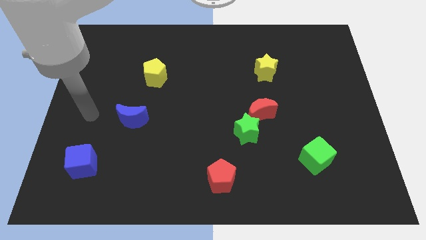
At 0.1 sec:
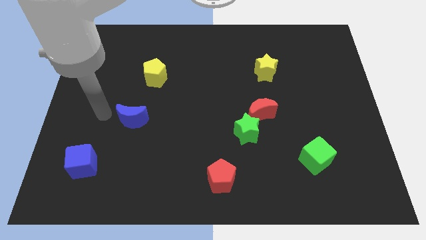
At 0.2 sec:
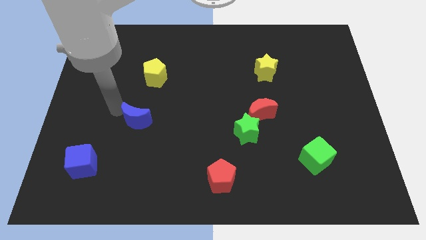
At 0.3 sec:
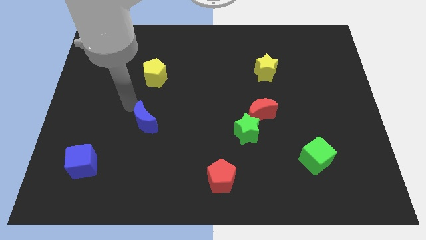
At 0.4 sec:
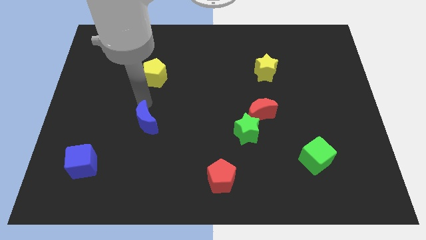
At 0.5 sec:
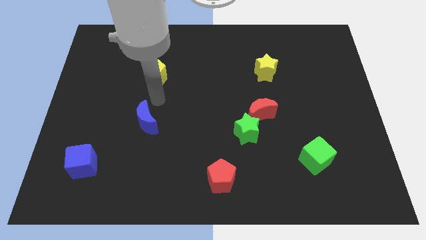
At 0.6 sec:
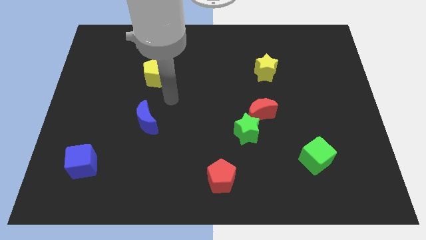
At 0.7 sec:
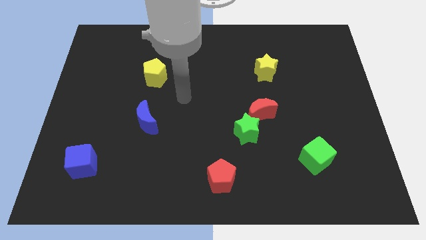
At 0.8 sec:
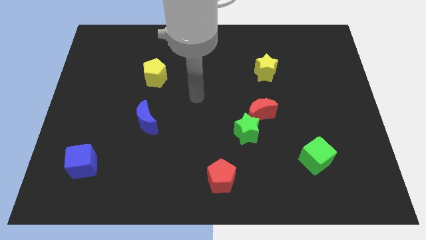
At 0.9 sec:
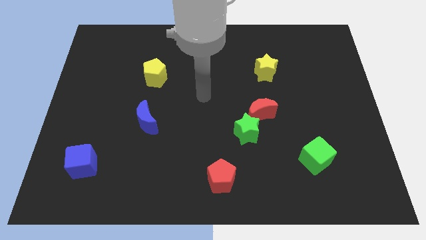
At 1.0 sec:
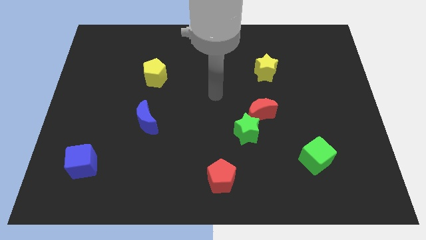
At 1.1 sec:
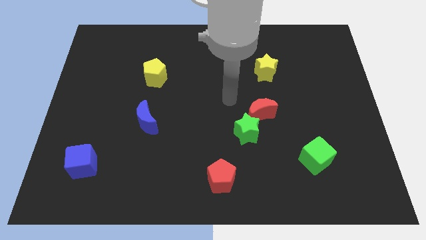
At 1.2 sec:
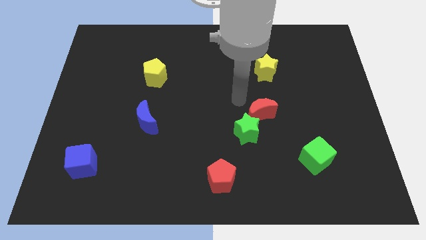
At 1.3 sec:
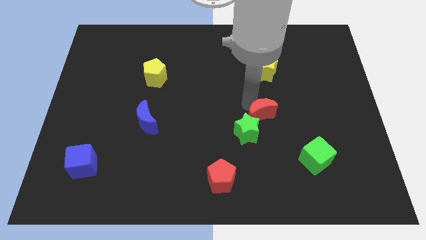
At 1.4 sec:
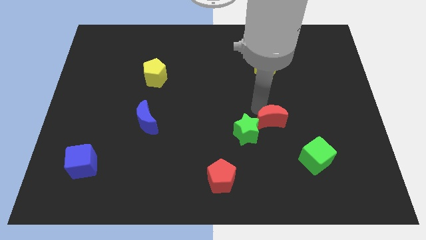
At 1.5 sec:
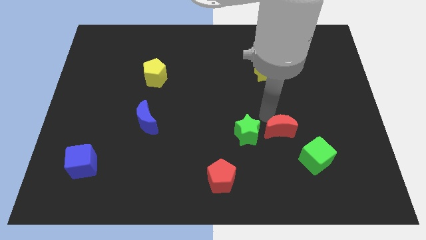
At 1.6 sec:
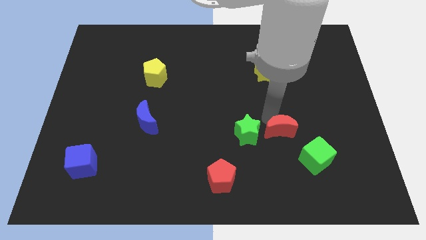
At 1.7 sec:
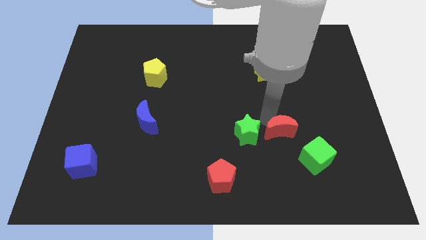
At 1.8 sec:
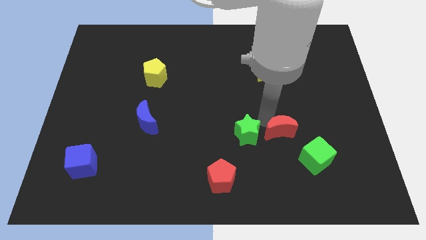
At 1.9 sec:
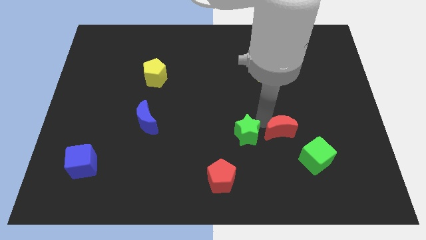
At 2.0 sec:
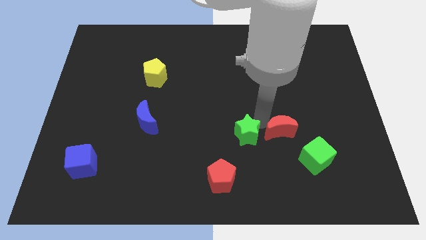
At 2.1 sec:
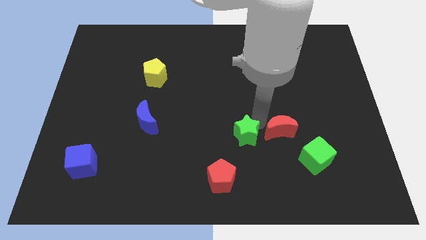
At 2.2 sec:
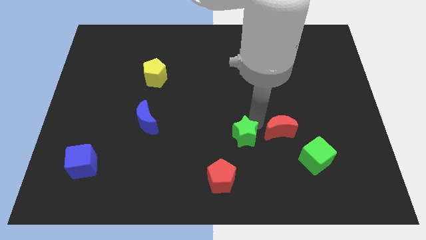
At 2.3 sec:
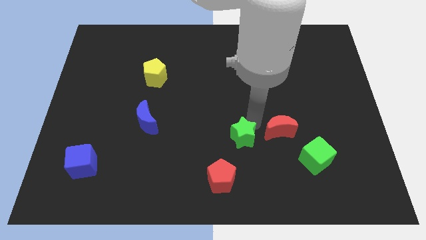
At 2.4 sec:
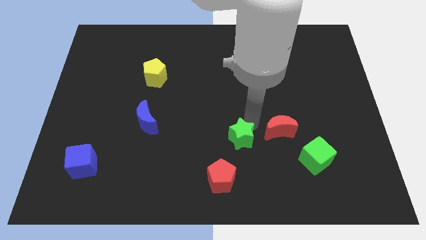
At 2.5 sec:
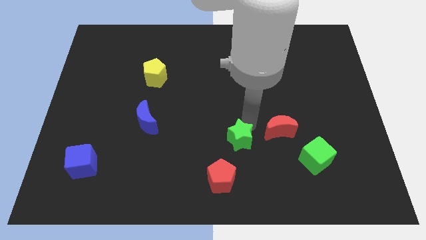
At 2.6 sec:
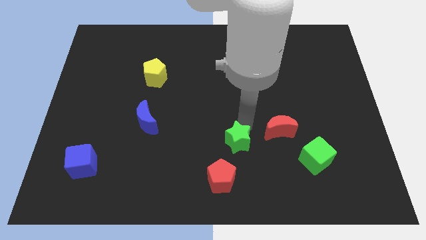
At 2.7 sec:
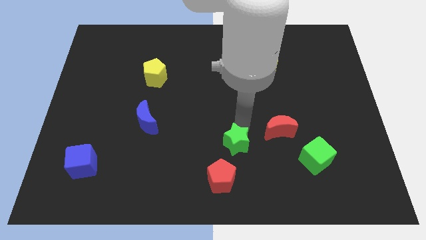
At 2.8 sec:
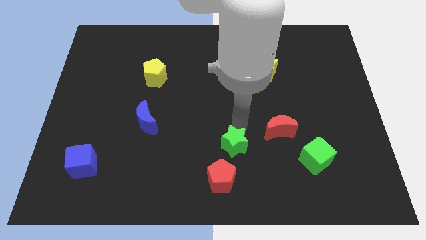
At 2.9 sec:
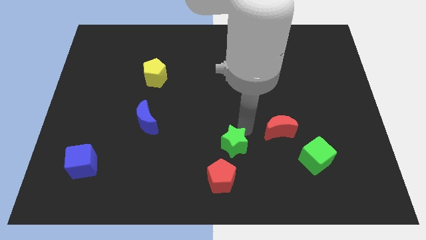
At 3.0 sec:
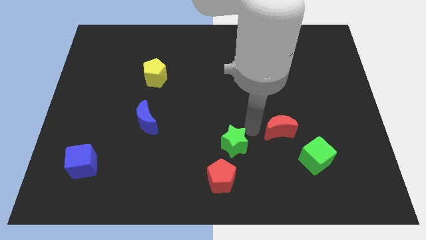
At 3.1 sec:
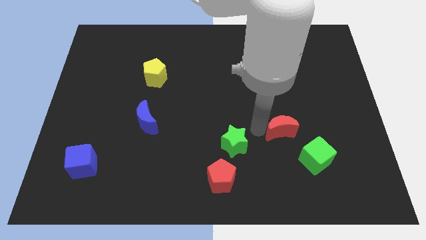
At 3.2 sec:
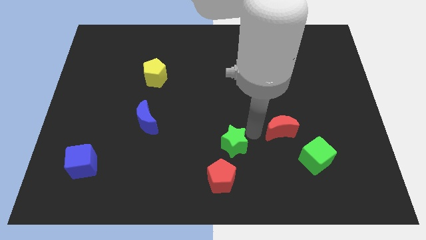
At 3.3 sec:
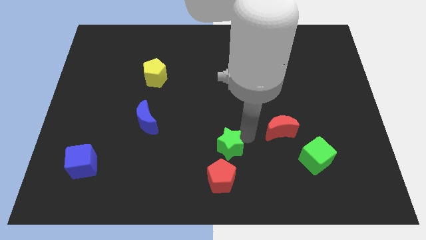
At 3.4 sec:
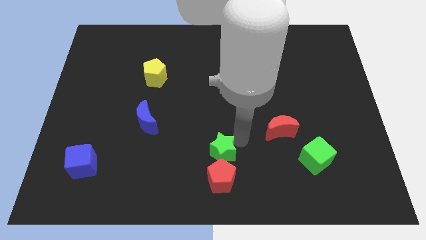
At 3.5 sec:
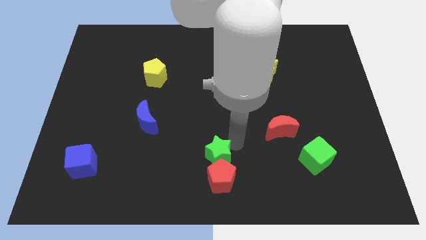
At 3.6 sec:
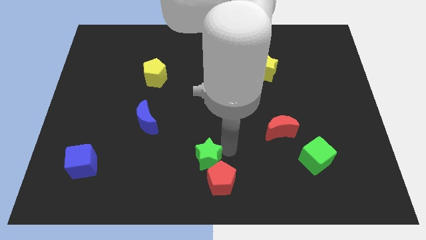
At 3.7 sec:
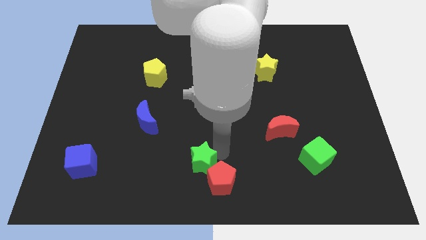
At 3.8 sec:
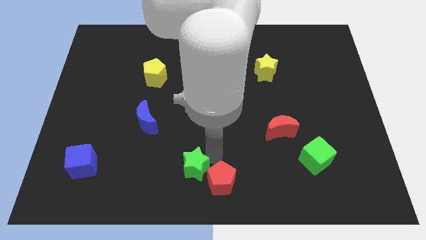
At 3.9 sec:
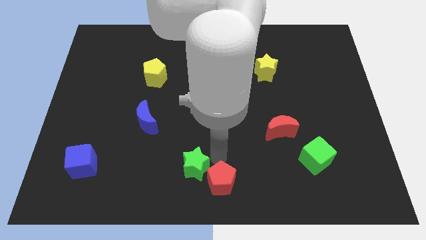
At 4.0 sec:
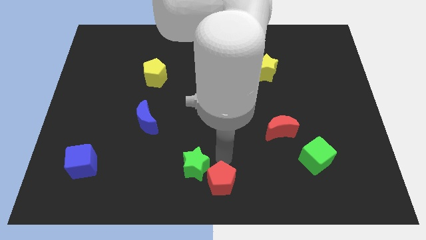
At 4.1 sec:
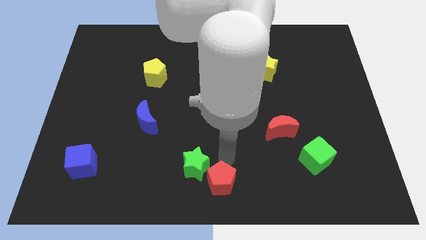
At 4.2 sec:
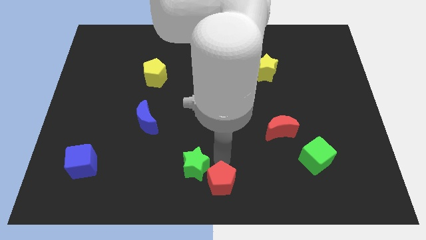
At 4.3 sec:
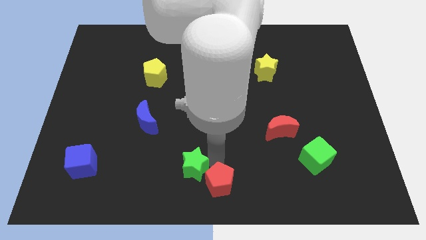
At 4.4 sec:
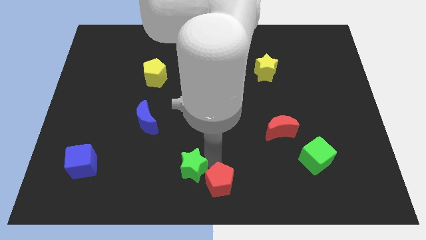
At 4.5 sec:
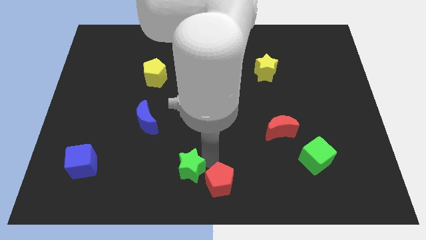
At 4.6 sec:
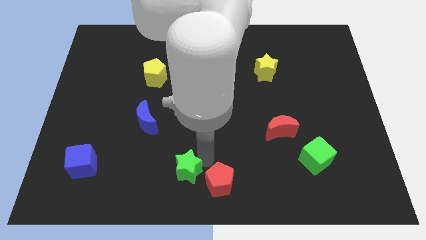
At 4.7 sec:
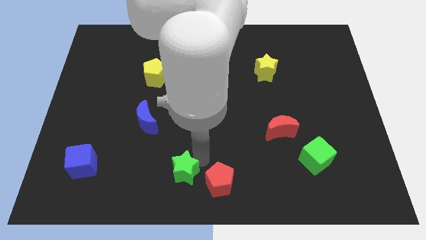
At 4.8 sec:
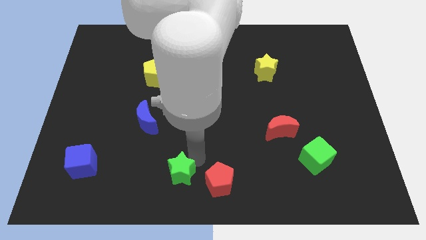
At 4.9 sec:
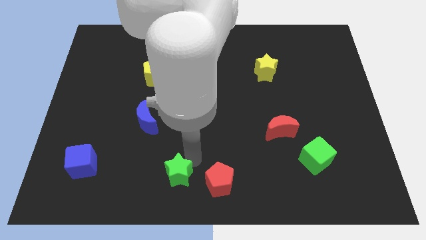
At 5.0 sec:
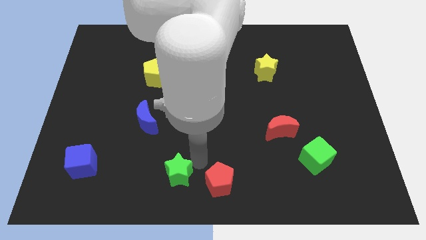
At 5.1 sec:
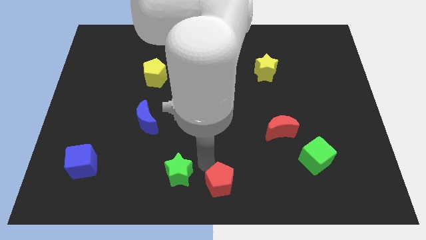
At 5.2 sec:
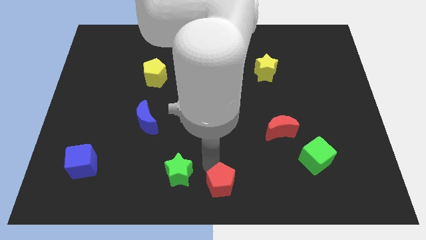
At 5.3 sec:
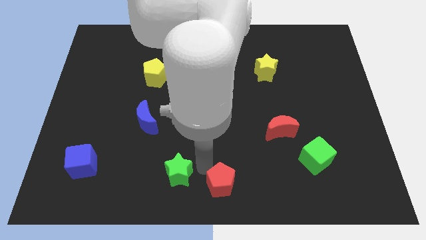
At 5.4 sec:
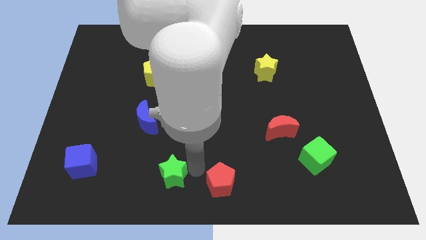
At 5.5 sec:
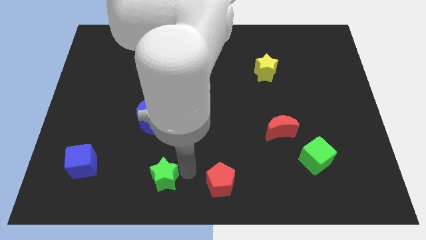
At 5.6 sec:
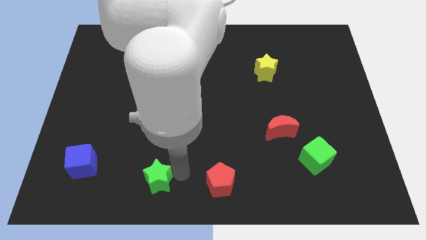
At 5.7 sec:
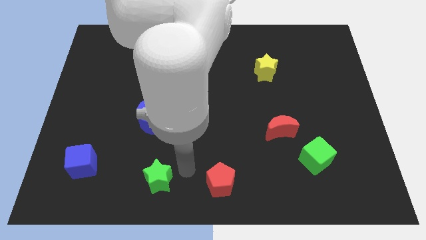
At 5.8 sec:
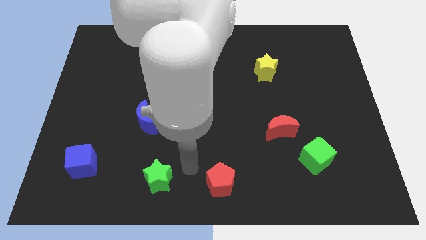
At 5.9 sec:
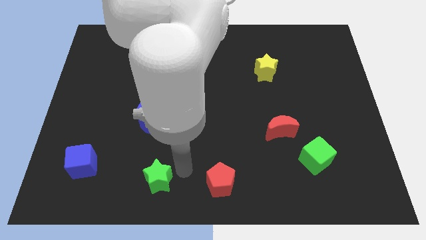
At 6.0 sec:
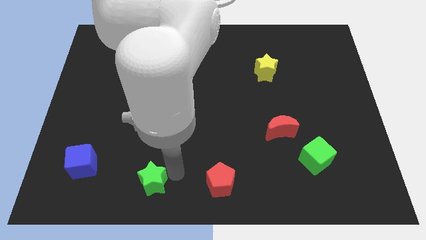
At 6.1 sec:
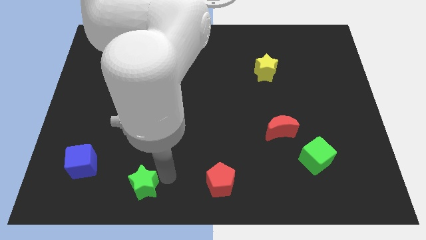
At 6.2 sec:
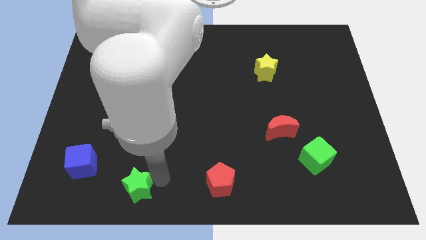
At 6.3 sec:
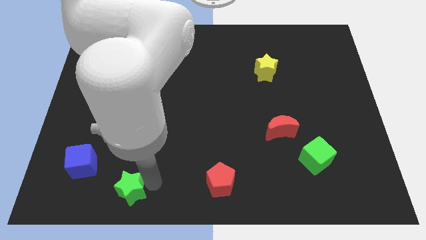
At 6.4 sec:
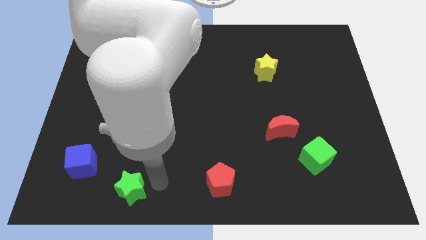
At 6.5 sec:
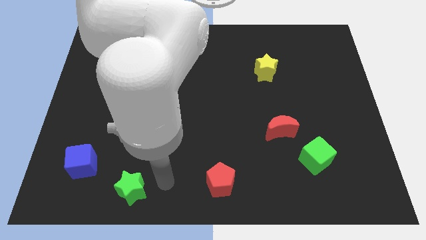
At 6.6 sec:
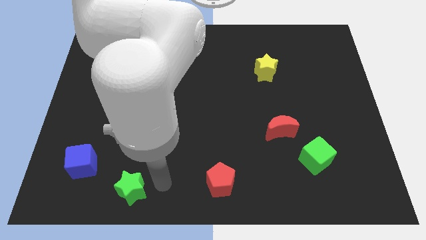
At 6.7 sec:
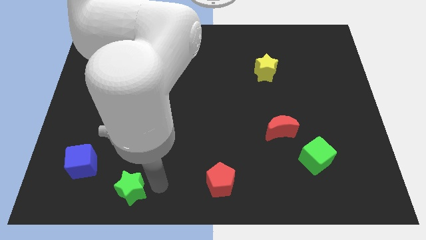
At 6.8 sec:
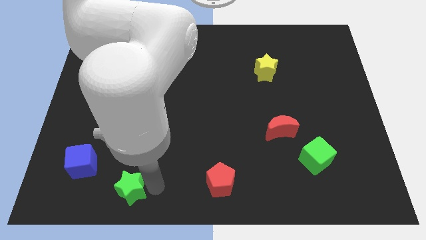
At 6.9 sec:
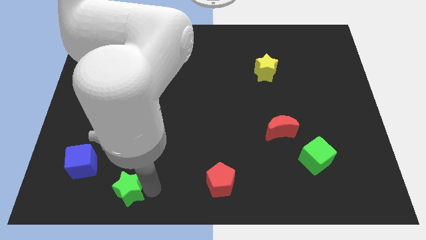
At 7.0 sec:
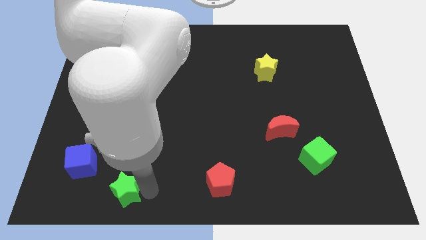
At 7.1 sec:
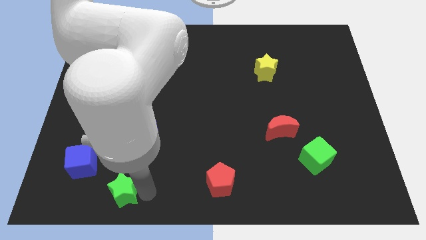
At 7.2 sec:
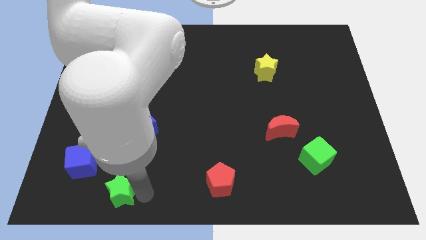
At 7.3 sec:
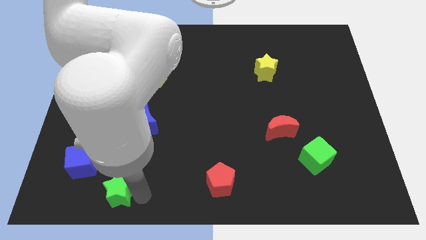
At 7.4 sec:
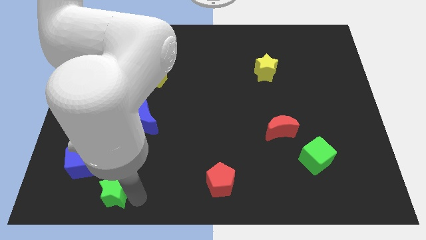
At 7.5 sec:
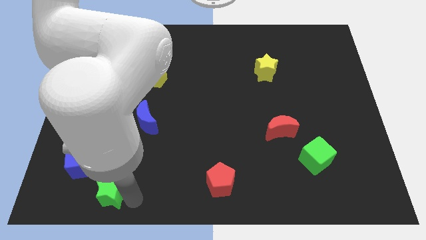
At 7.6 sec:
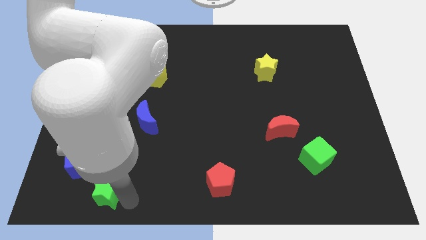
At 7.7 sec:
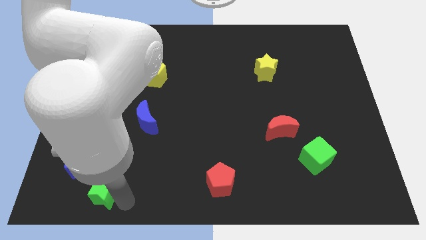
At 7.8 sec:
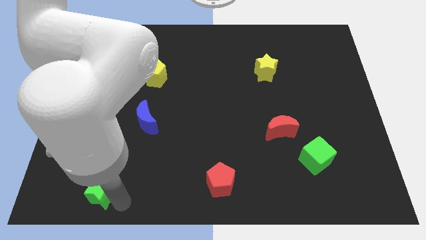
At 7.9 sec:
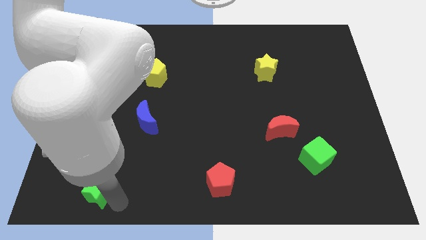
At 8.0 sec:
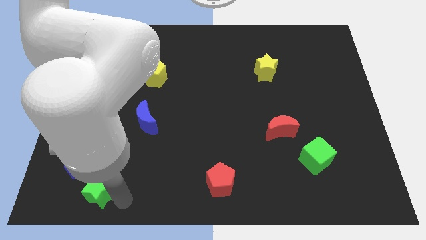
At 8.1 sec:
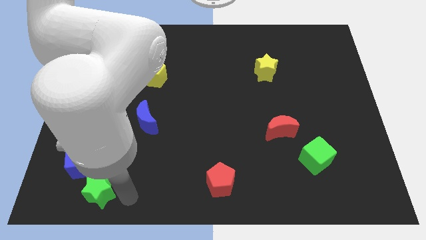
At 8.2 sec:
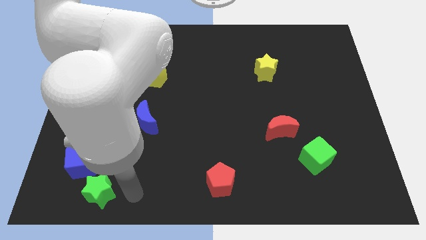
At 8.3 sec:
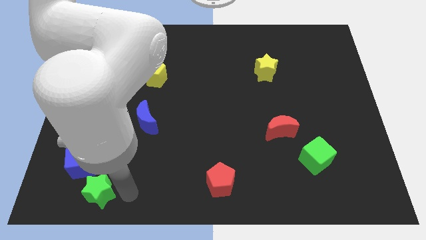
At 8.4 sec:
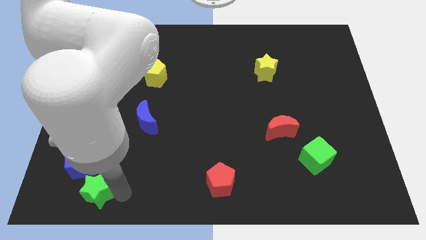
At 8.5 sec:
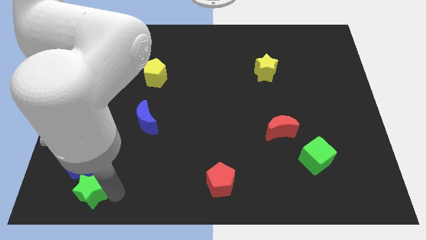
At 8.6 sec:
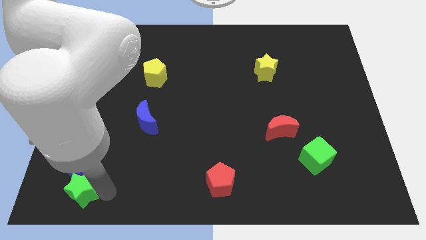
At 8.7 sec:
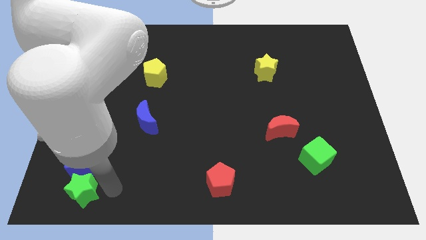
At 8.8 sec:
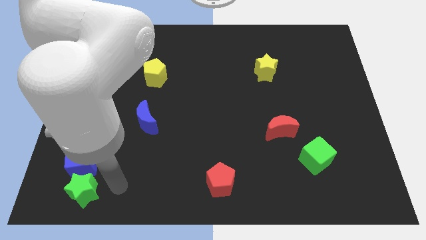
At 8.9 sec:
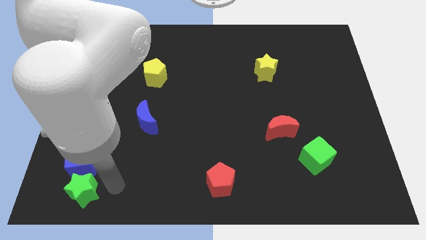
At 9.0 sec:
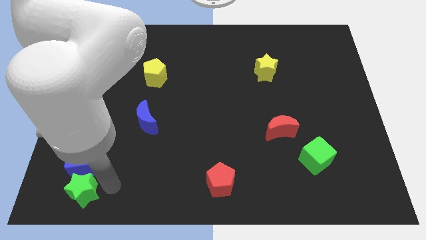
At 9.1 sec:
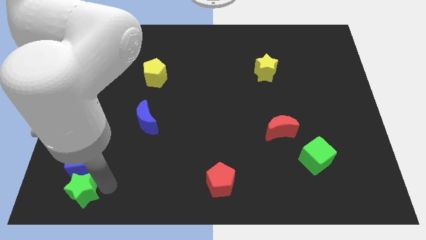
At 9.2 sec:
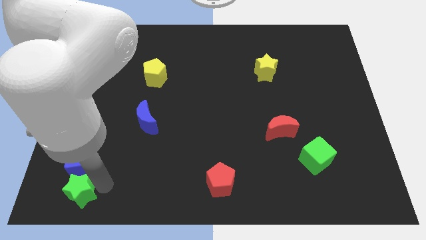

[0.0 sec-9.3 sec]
move the green star to the lower left corner
